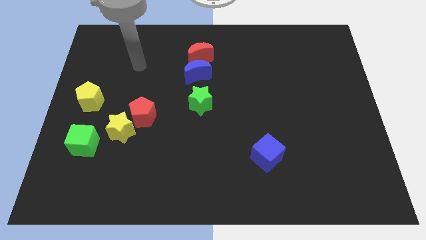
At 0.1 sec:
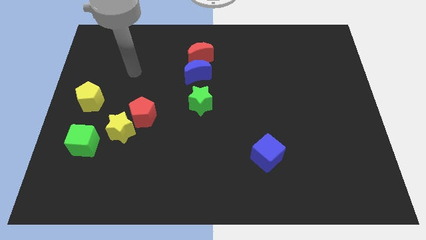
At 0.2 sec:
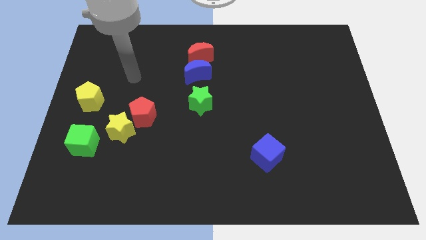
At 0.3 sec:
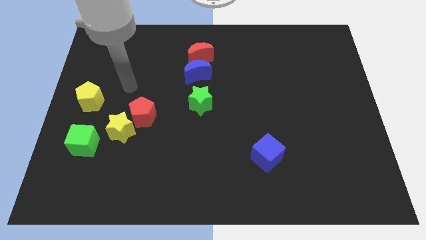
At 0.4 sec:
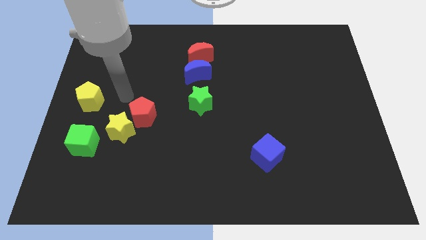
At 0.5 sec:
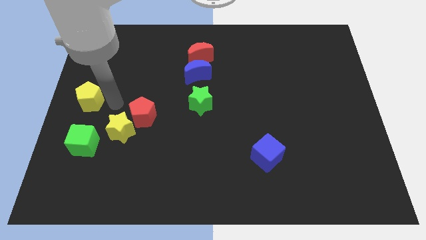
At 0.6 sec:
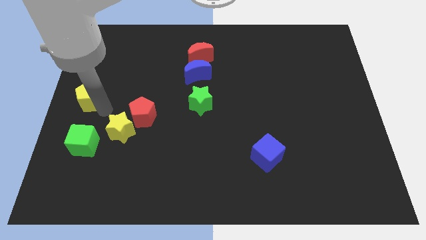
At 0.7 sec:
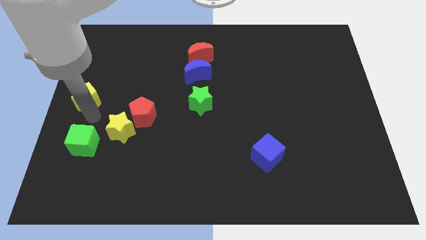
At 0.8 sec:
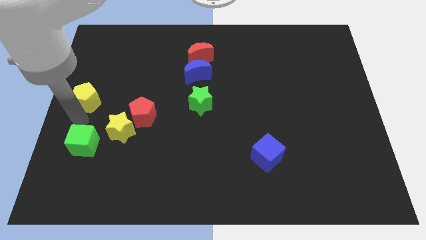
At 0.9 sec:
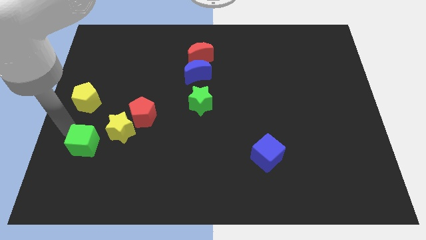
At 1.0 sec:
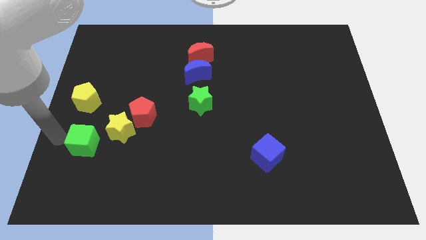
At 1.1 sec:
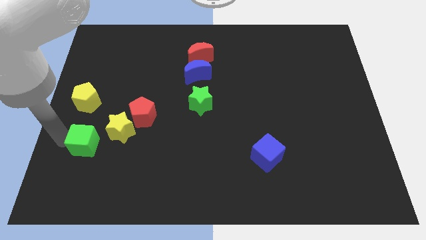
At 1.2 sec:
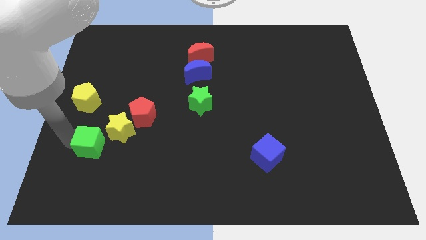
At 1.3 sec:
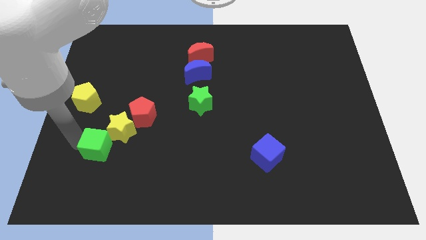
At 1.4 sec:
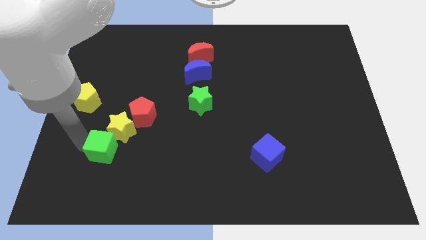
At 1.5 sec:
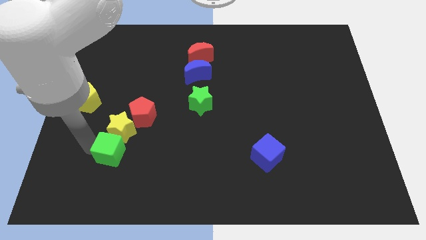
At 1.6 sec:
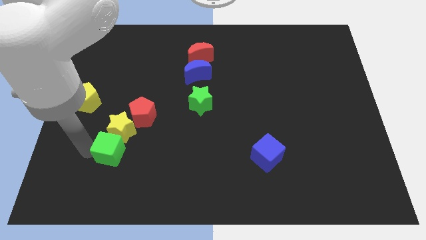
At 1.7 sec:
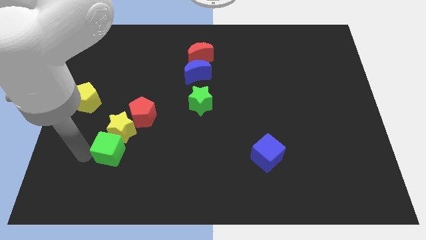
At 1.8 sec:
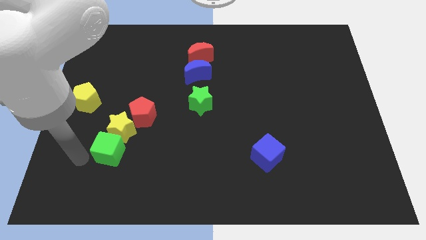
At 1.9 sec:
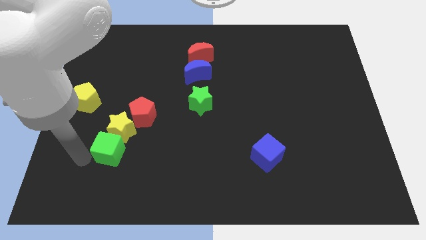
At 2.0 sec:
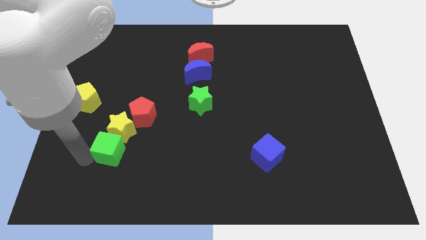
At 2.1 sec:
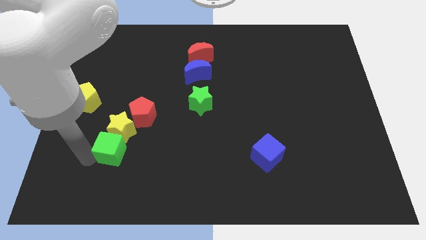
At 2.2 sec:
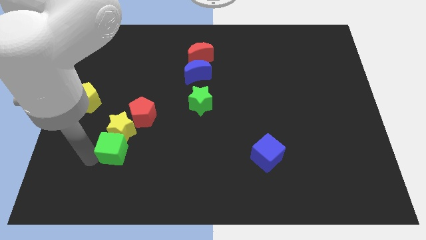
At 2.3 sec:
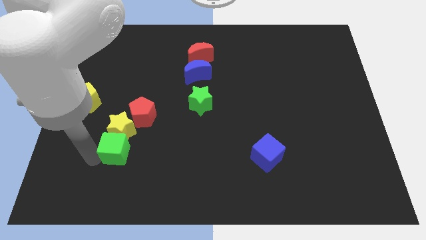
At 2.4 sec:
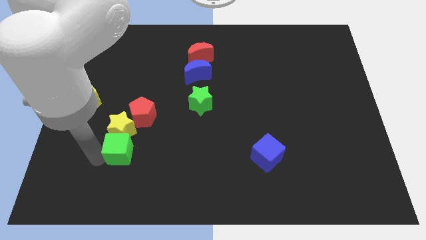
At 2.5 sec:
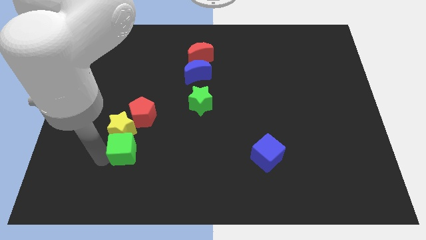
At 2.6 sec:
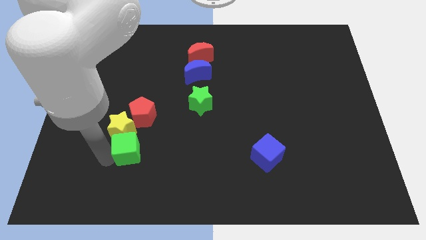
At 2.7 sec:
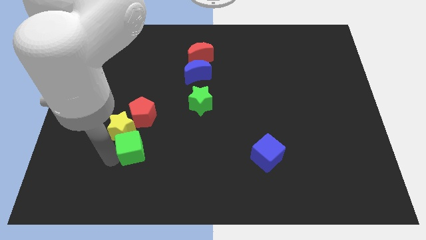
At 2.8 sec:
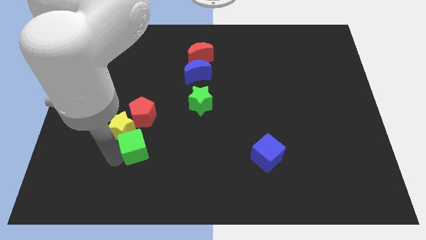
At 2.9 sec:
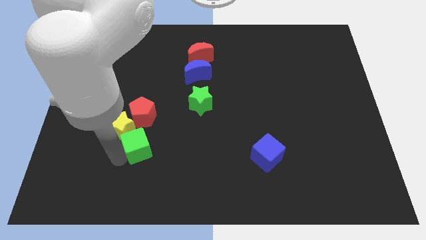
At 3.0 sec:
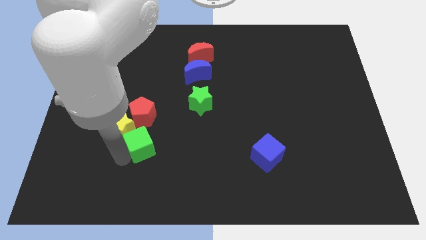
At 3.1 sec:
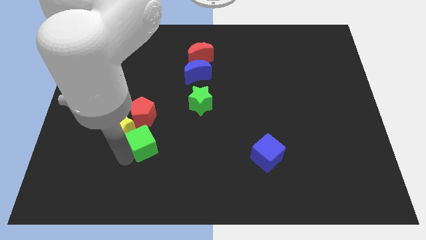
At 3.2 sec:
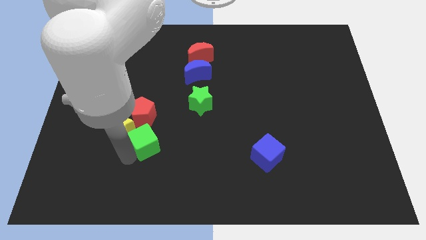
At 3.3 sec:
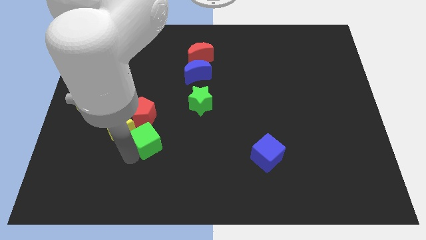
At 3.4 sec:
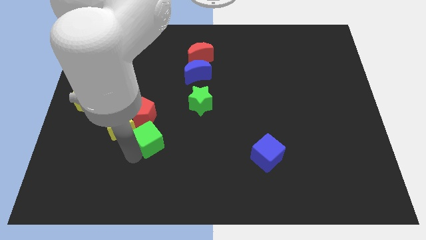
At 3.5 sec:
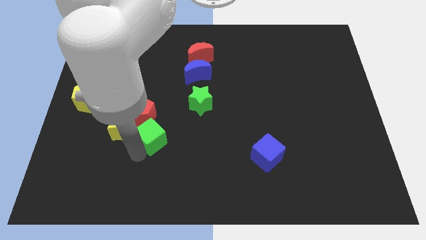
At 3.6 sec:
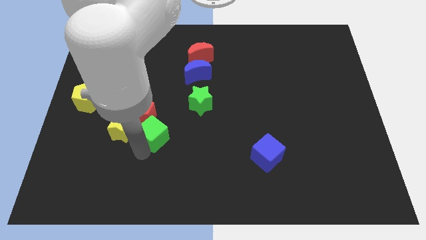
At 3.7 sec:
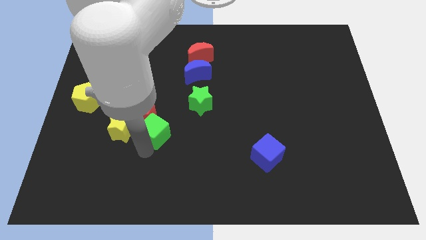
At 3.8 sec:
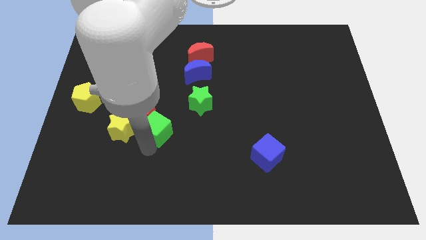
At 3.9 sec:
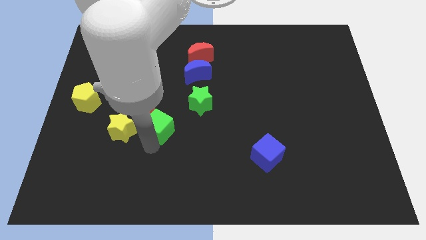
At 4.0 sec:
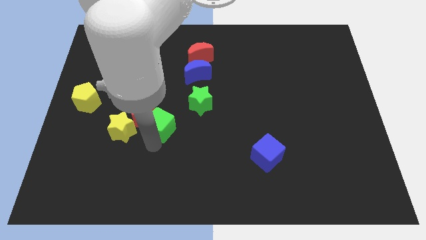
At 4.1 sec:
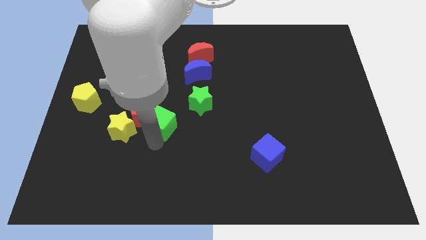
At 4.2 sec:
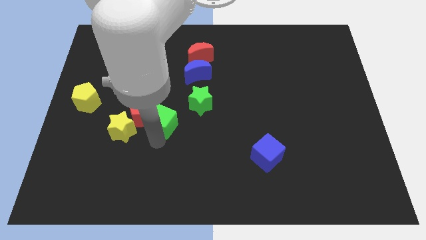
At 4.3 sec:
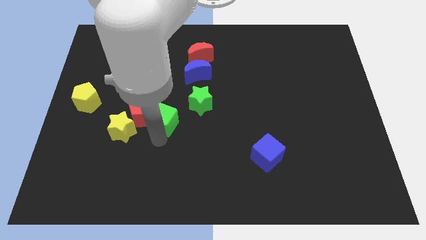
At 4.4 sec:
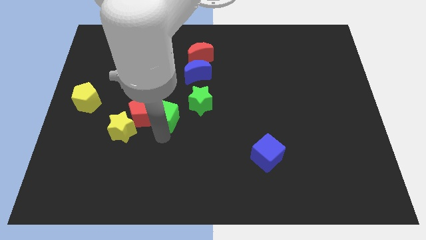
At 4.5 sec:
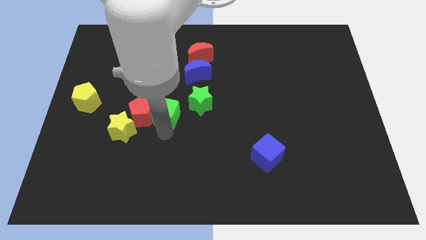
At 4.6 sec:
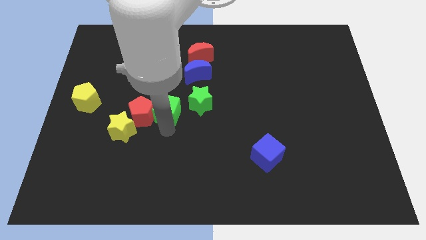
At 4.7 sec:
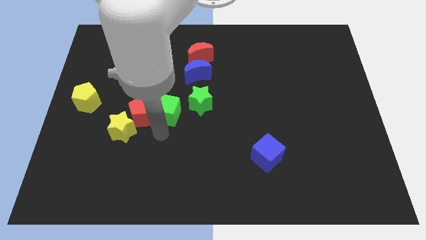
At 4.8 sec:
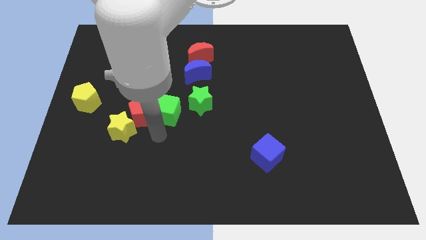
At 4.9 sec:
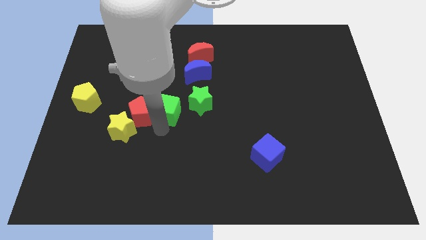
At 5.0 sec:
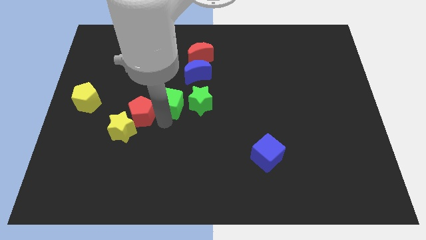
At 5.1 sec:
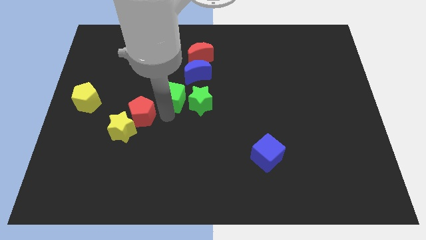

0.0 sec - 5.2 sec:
move the green cube diagonally up and to the left of the green star

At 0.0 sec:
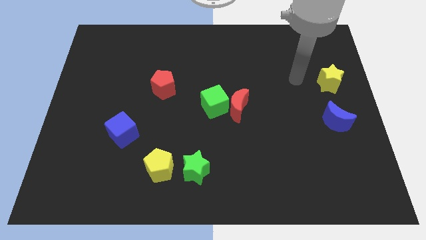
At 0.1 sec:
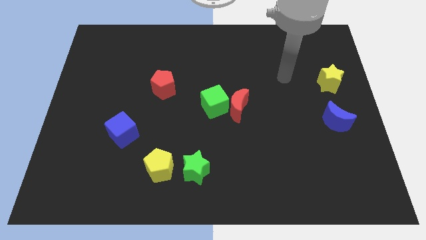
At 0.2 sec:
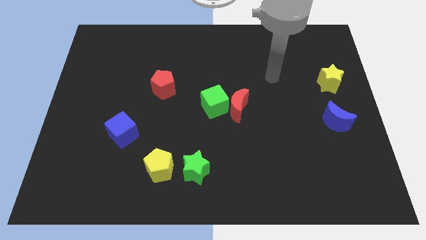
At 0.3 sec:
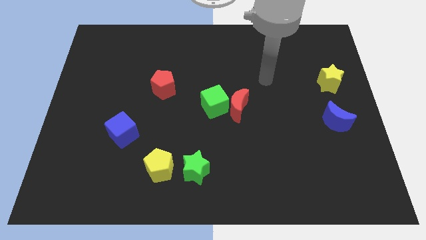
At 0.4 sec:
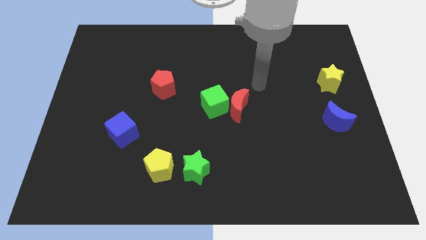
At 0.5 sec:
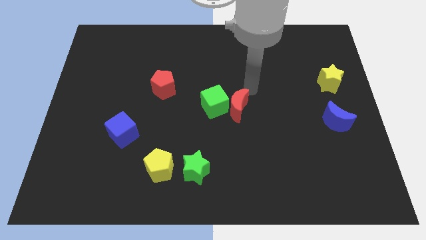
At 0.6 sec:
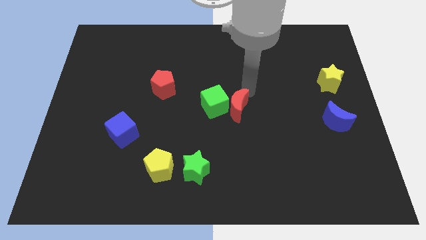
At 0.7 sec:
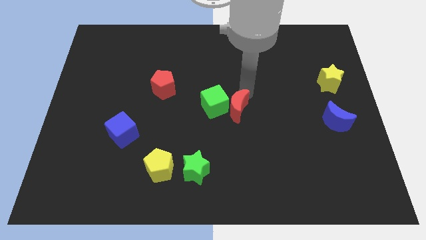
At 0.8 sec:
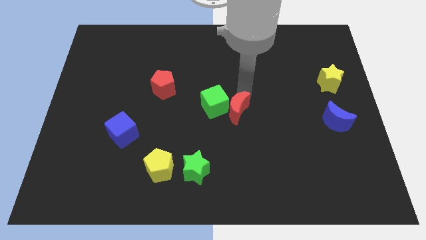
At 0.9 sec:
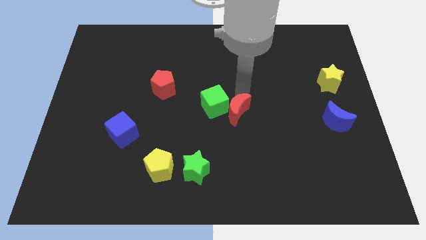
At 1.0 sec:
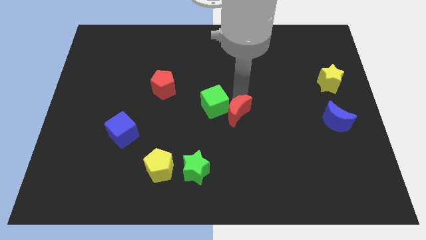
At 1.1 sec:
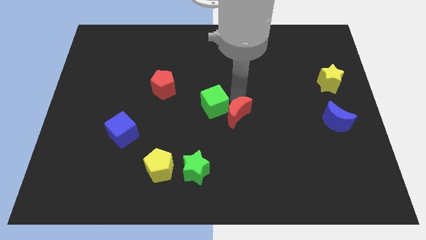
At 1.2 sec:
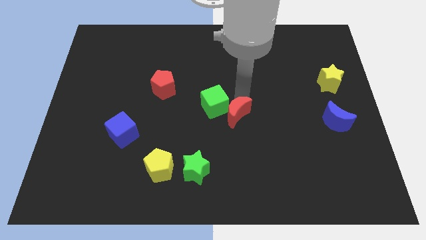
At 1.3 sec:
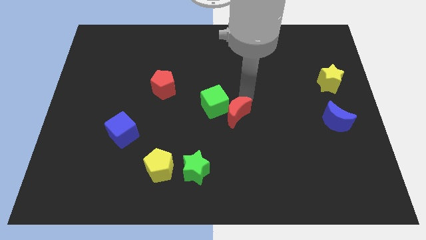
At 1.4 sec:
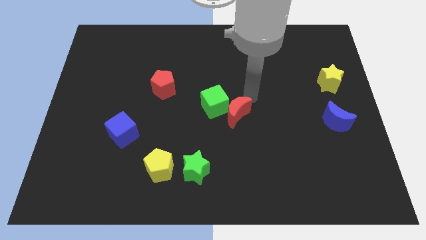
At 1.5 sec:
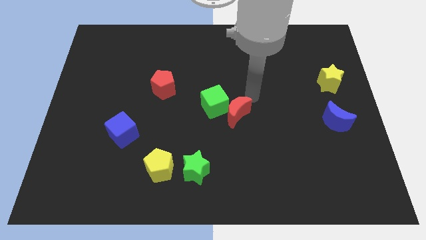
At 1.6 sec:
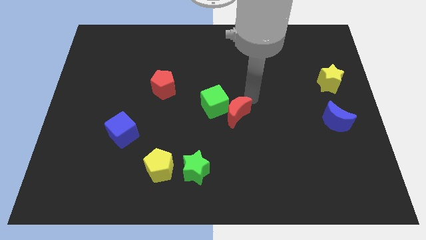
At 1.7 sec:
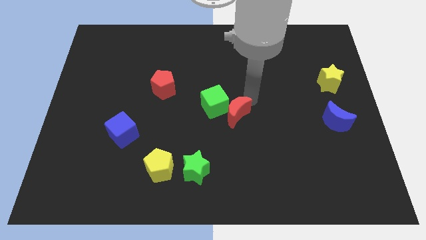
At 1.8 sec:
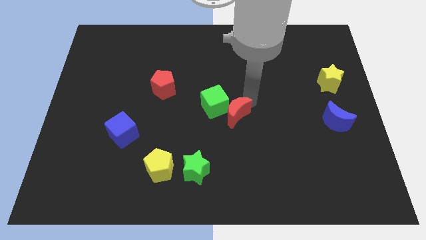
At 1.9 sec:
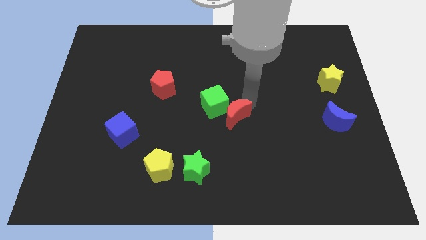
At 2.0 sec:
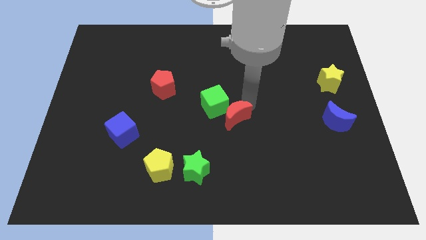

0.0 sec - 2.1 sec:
put the red moon to the bottom of the green cube
